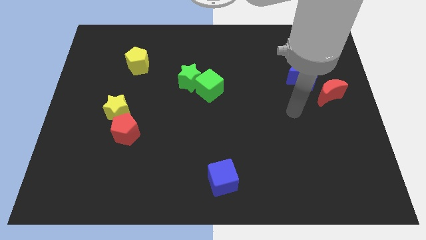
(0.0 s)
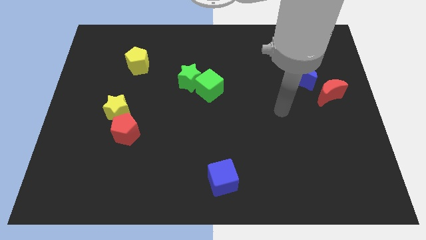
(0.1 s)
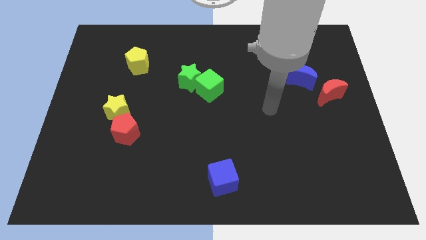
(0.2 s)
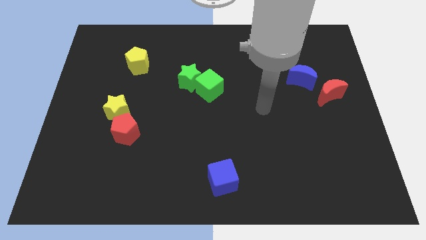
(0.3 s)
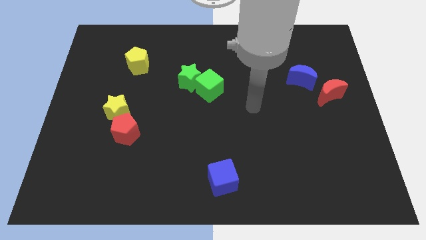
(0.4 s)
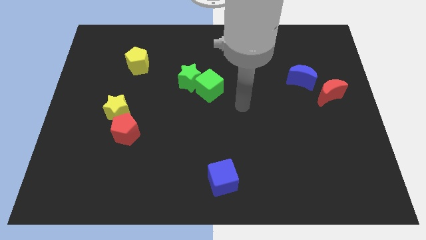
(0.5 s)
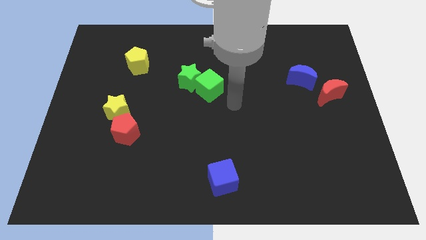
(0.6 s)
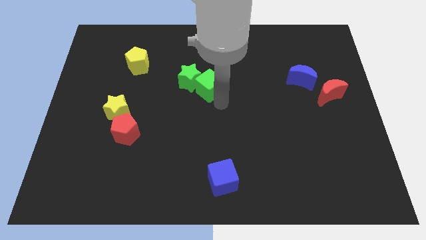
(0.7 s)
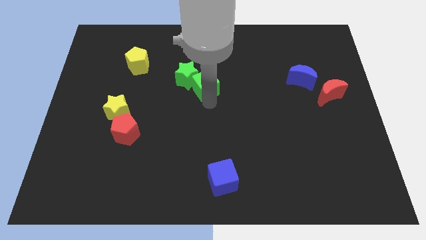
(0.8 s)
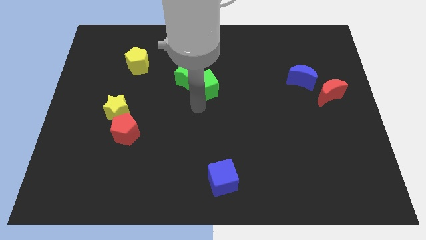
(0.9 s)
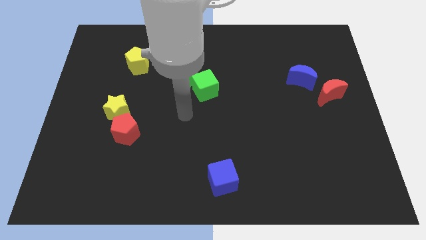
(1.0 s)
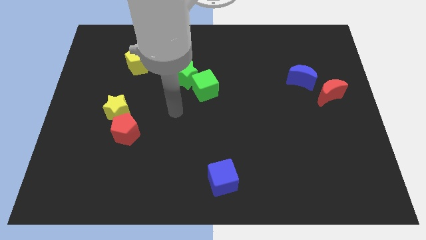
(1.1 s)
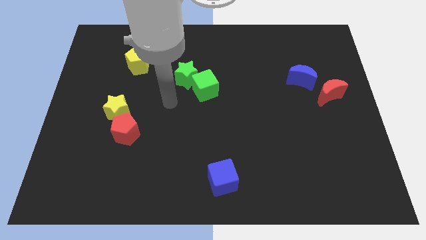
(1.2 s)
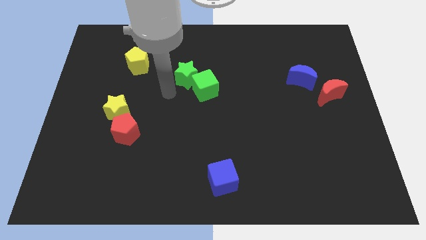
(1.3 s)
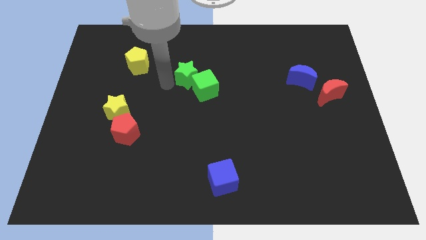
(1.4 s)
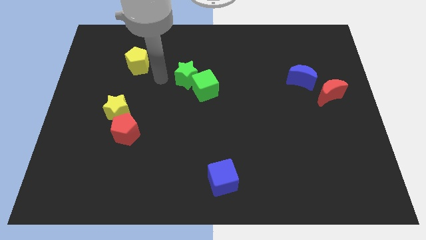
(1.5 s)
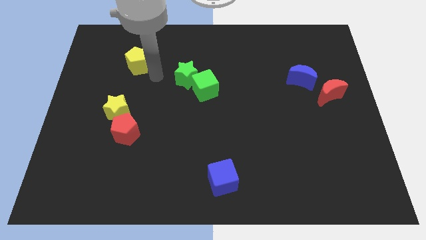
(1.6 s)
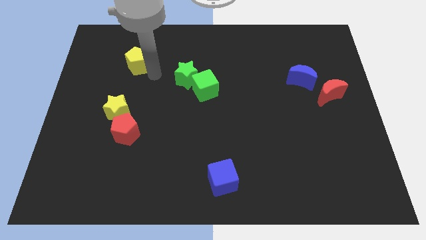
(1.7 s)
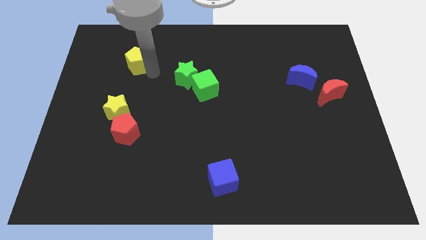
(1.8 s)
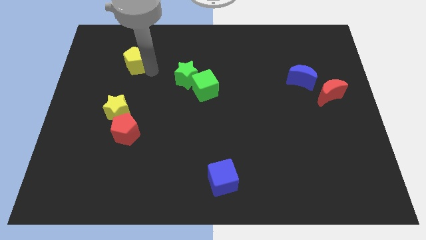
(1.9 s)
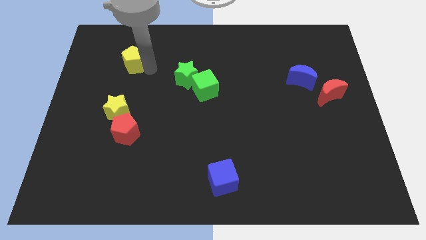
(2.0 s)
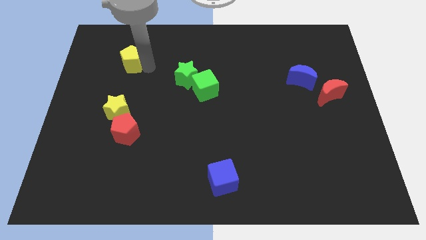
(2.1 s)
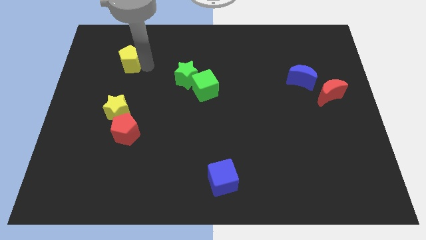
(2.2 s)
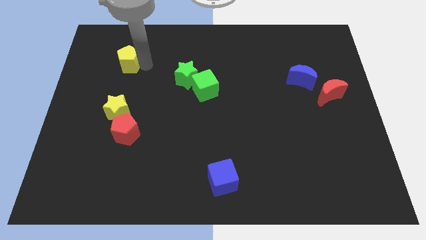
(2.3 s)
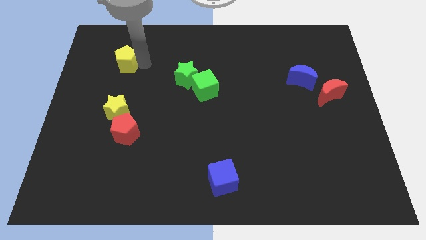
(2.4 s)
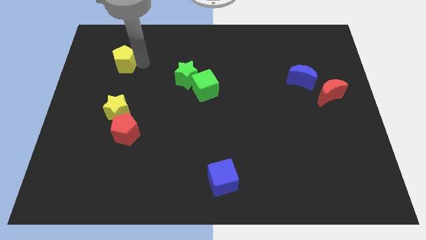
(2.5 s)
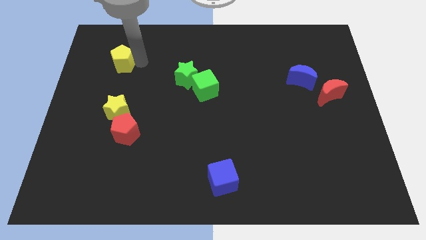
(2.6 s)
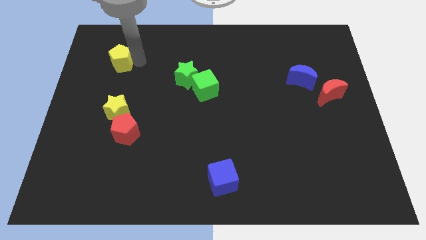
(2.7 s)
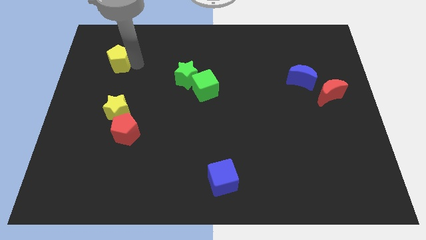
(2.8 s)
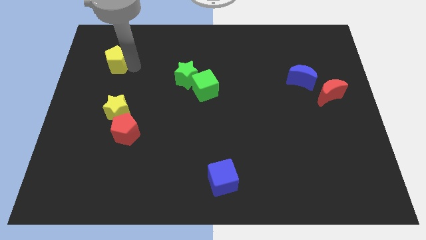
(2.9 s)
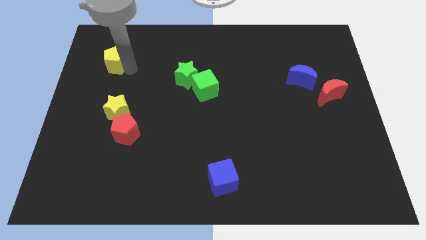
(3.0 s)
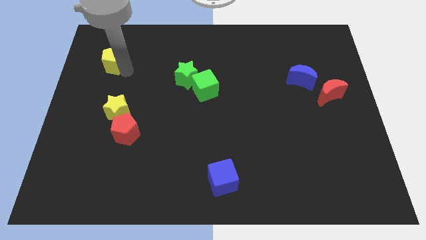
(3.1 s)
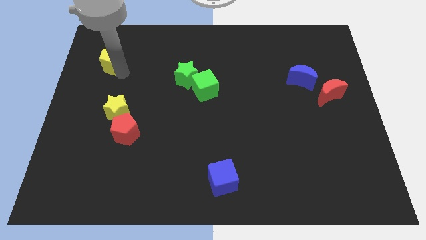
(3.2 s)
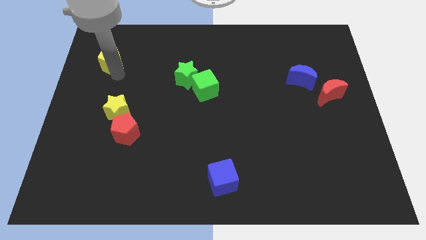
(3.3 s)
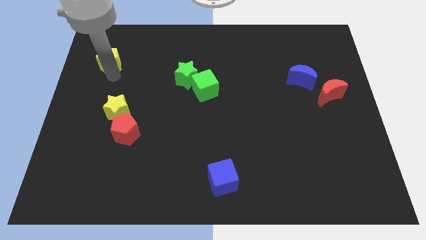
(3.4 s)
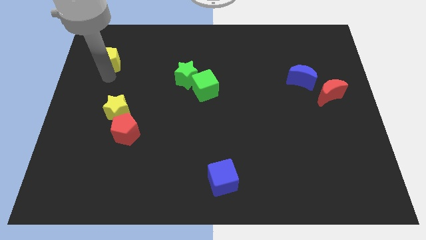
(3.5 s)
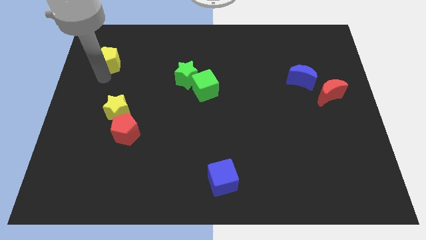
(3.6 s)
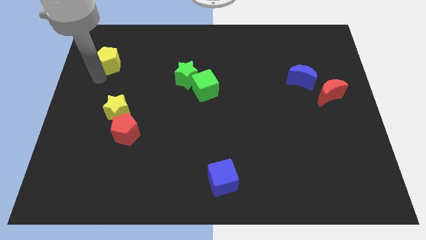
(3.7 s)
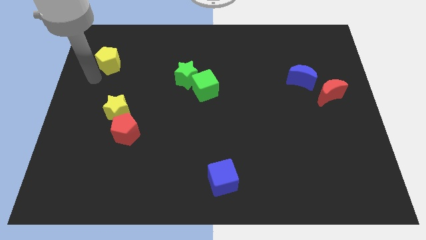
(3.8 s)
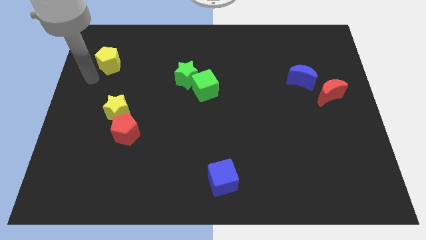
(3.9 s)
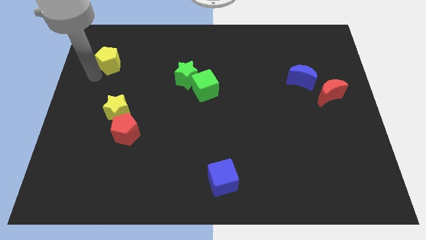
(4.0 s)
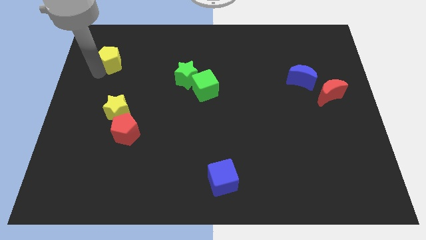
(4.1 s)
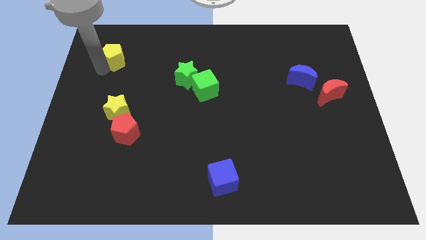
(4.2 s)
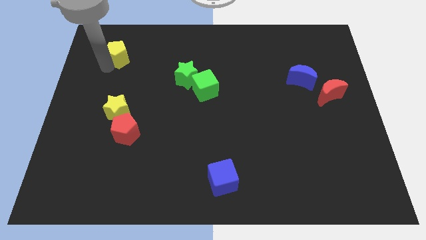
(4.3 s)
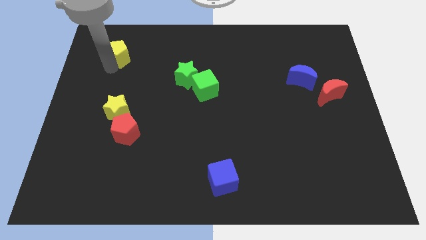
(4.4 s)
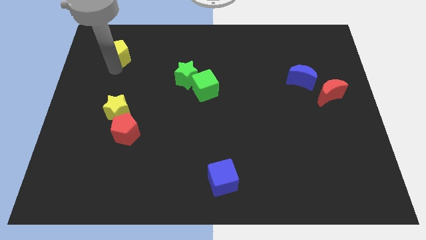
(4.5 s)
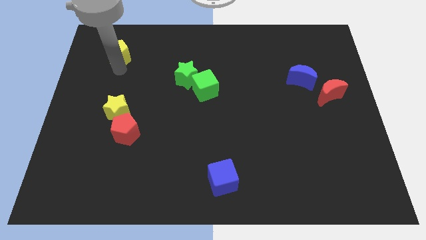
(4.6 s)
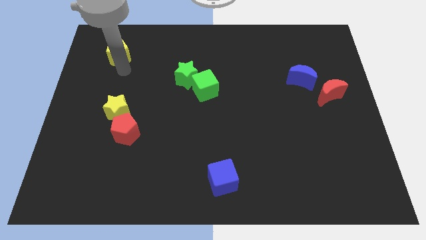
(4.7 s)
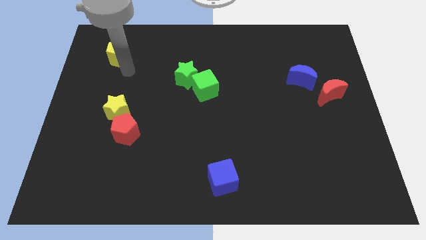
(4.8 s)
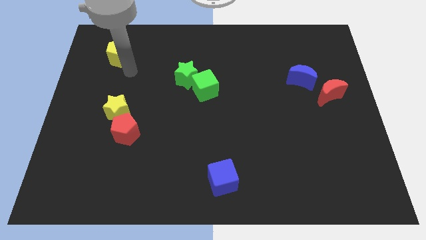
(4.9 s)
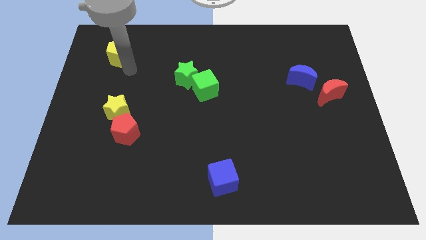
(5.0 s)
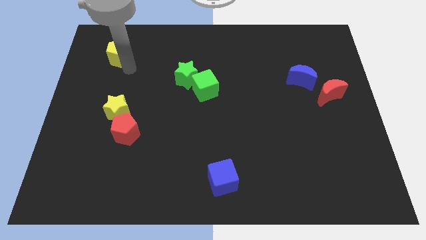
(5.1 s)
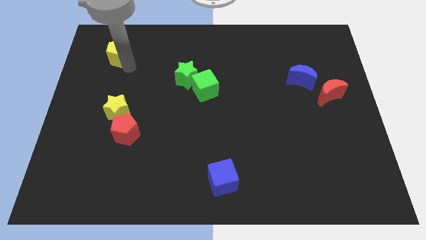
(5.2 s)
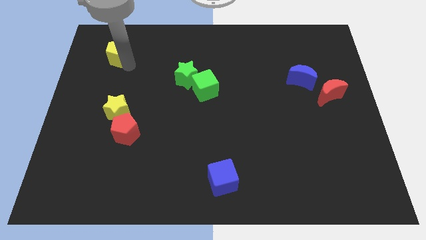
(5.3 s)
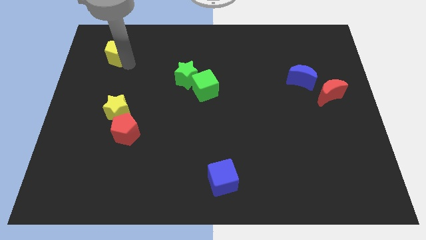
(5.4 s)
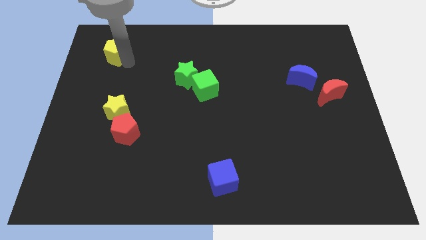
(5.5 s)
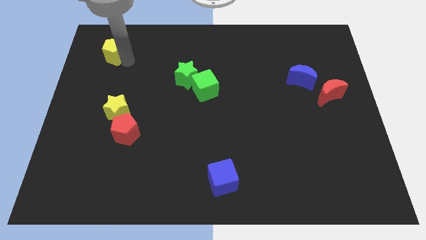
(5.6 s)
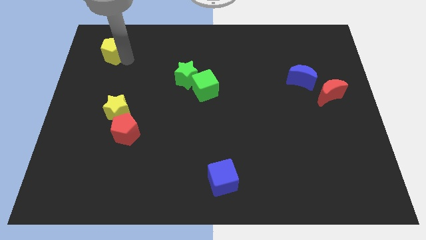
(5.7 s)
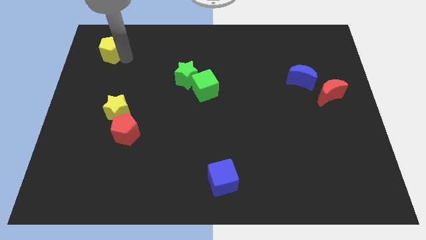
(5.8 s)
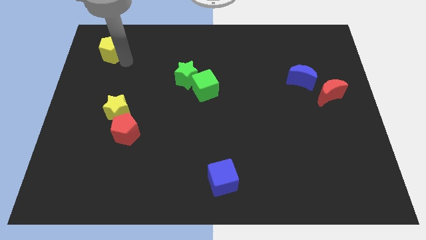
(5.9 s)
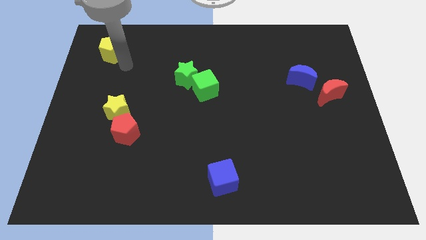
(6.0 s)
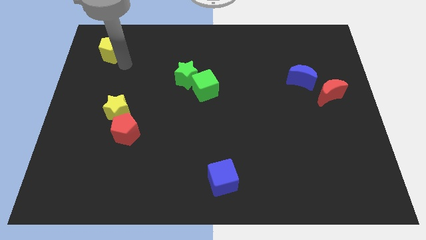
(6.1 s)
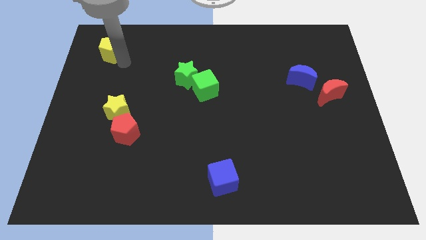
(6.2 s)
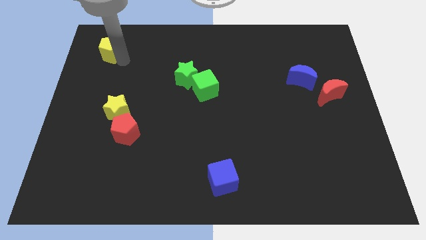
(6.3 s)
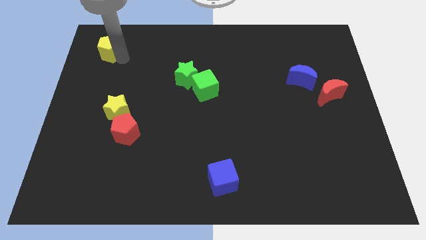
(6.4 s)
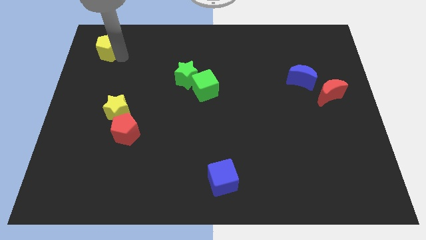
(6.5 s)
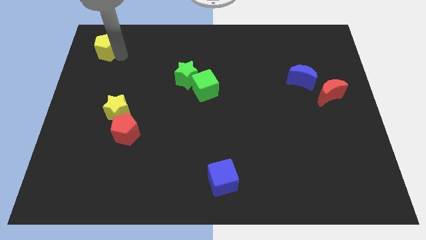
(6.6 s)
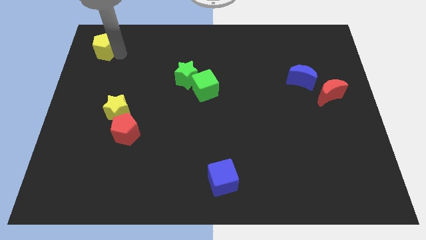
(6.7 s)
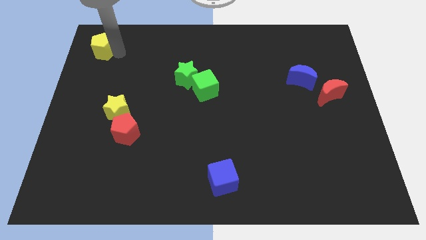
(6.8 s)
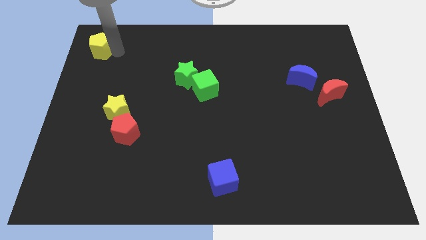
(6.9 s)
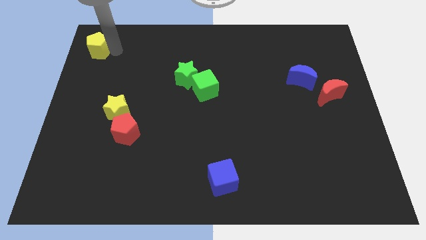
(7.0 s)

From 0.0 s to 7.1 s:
put the yellow pentagon to the top left corner
